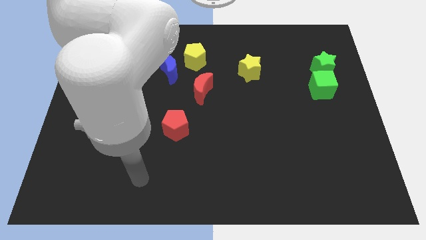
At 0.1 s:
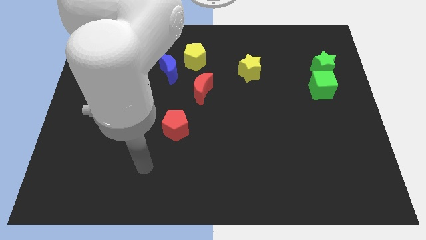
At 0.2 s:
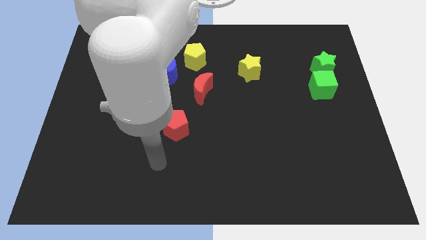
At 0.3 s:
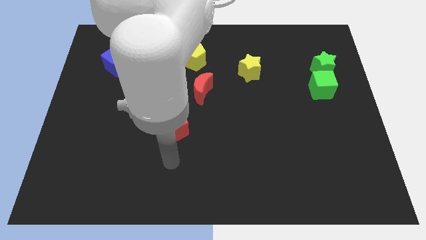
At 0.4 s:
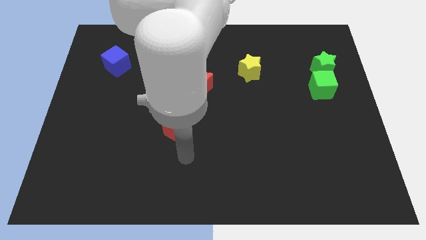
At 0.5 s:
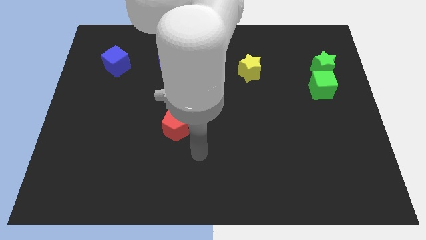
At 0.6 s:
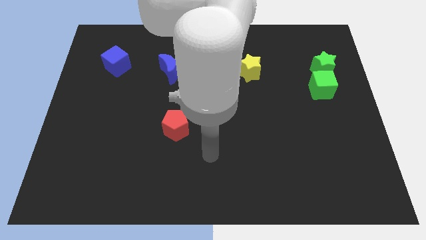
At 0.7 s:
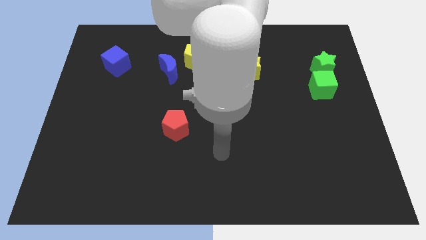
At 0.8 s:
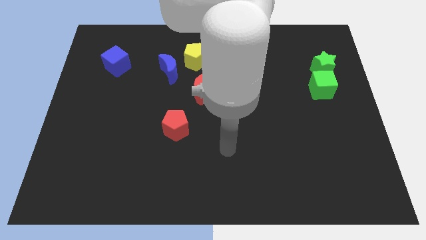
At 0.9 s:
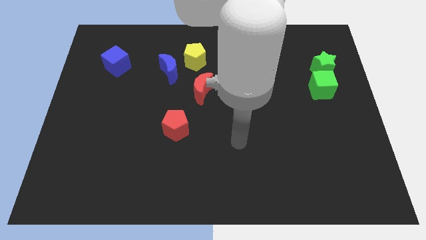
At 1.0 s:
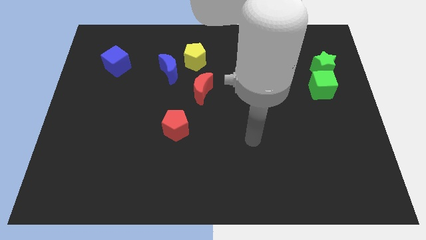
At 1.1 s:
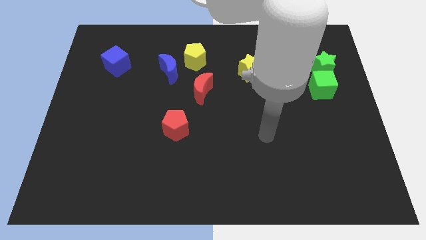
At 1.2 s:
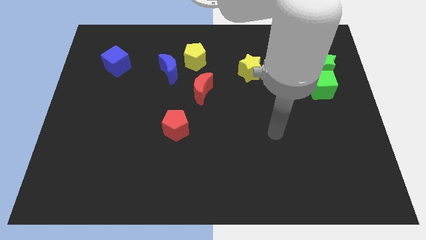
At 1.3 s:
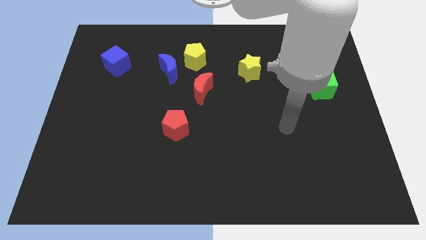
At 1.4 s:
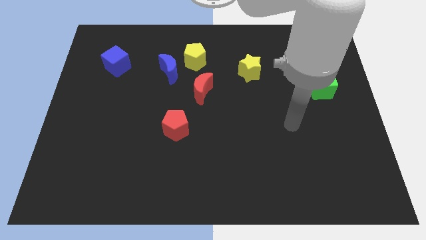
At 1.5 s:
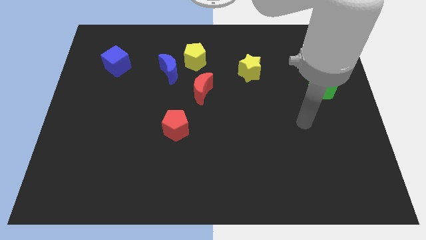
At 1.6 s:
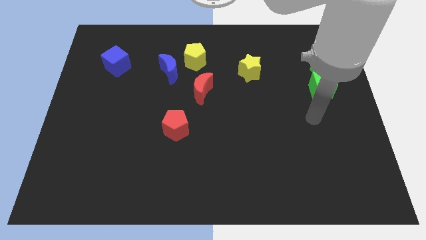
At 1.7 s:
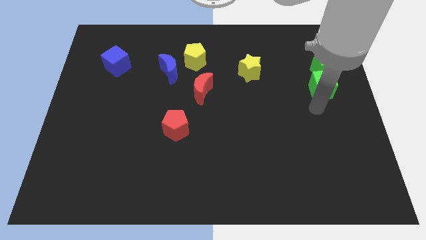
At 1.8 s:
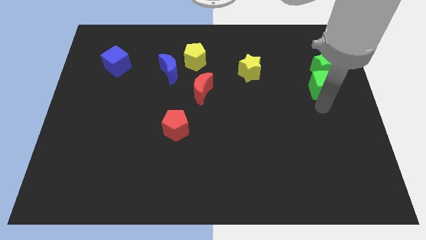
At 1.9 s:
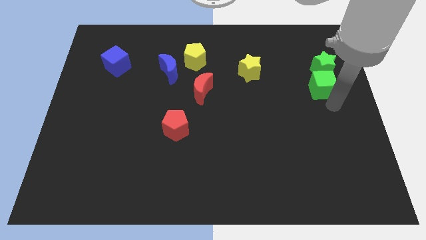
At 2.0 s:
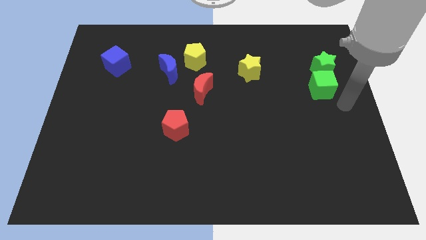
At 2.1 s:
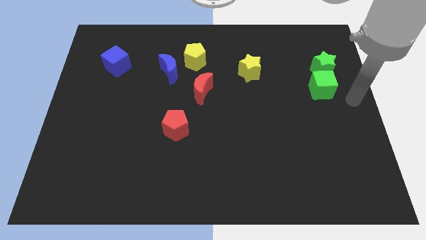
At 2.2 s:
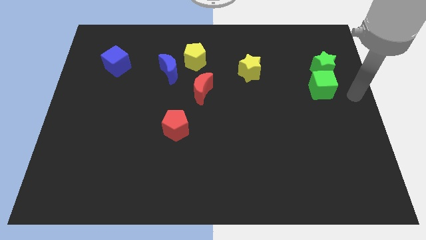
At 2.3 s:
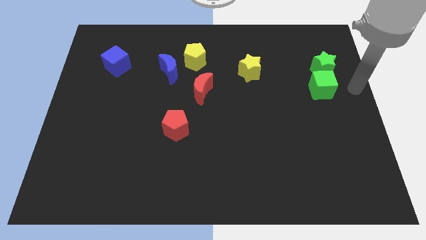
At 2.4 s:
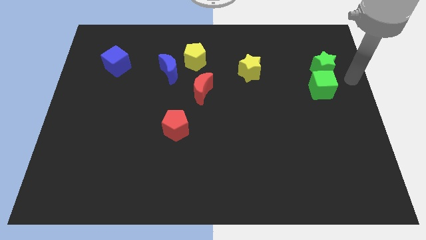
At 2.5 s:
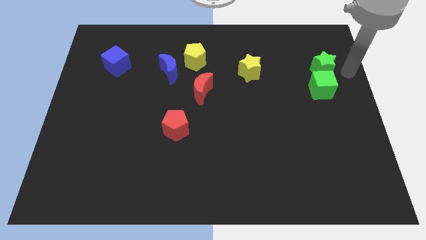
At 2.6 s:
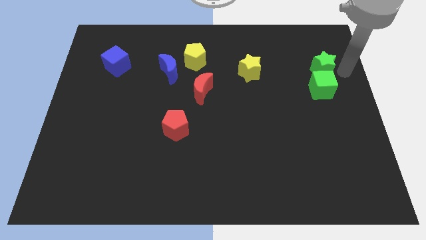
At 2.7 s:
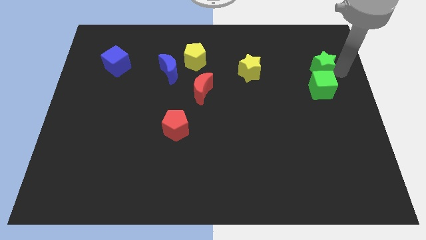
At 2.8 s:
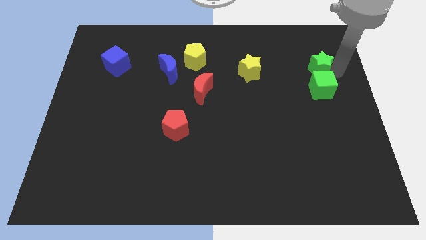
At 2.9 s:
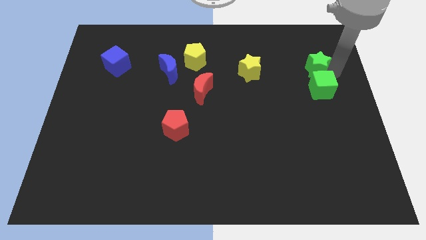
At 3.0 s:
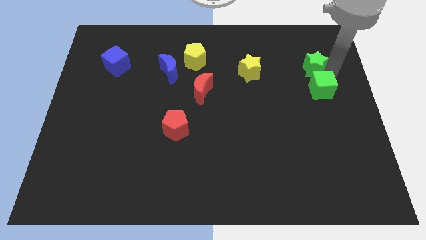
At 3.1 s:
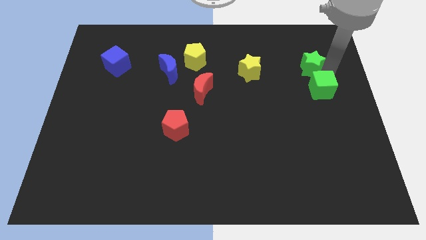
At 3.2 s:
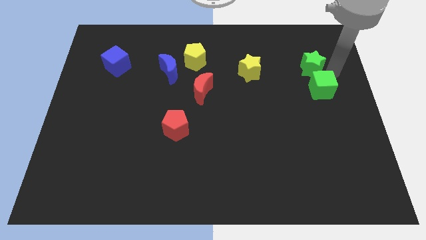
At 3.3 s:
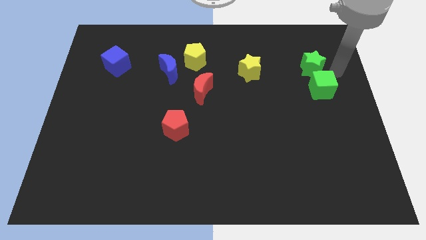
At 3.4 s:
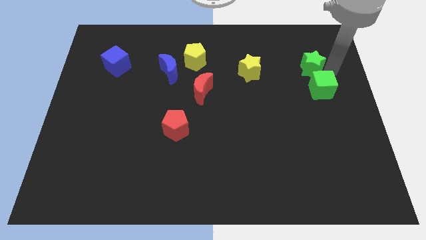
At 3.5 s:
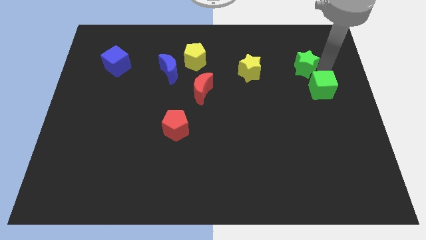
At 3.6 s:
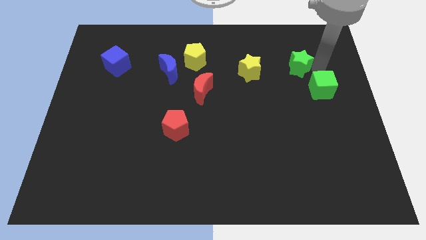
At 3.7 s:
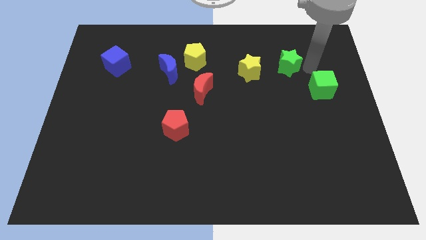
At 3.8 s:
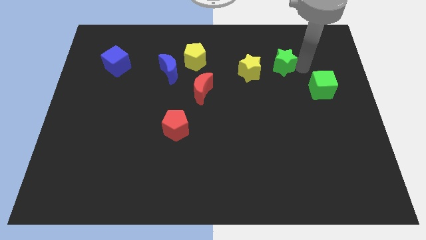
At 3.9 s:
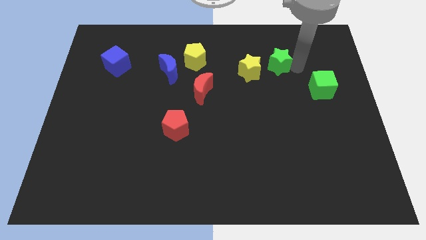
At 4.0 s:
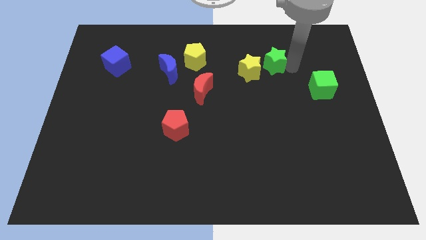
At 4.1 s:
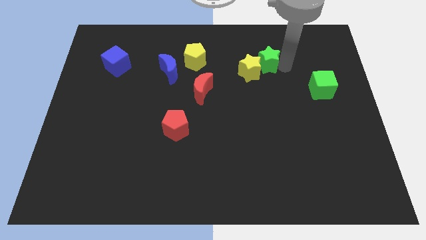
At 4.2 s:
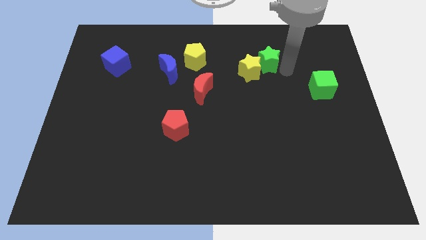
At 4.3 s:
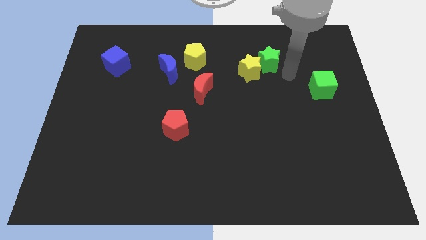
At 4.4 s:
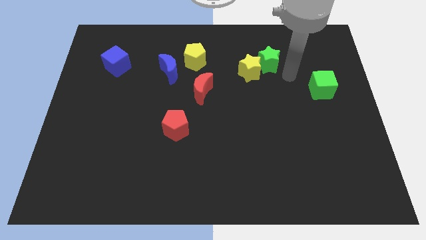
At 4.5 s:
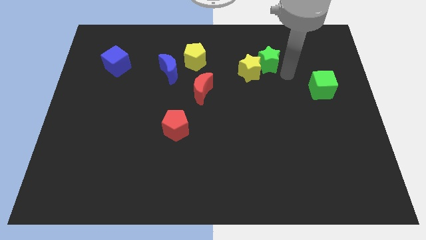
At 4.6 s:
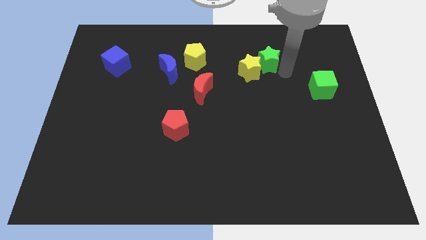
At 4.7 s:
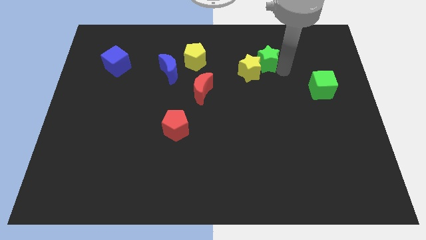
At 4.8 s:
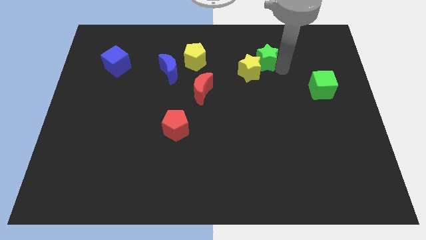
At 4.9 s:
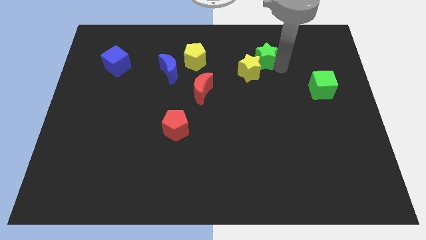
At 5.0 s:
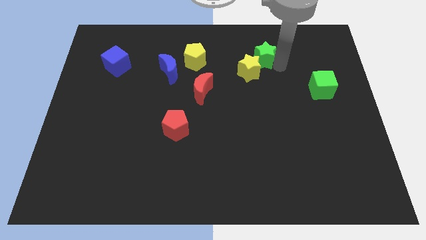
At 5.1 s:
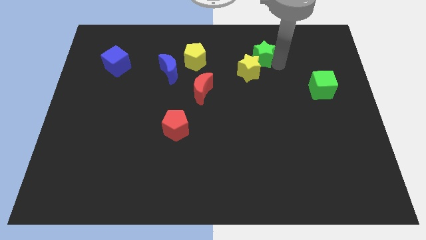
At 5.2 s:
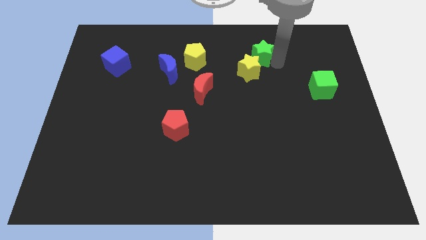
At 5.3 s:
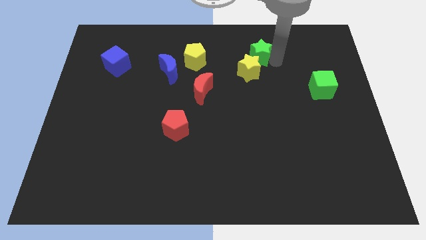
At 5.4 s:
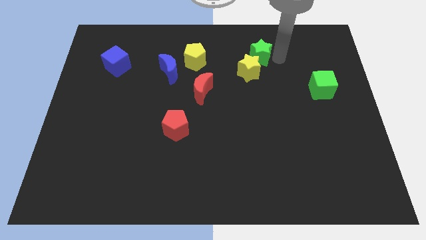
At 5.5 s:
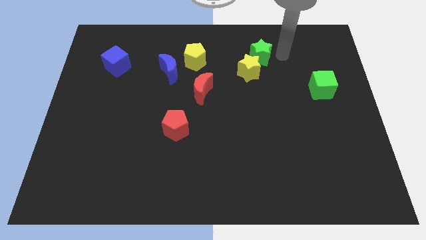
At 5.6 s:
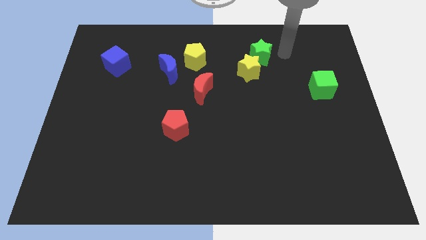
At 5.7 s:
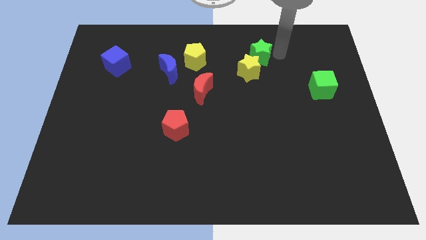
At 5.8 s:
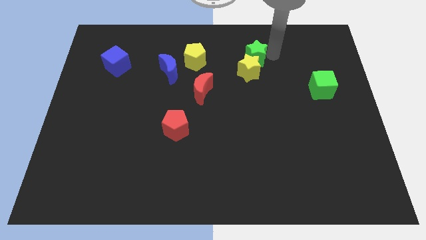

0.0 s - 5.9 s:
push the green star just right of the yellow pentagon

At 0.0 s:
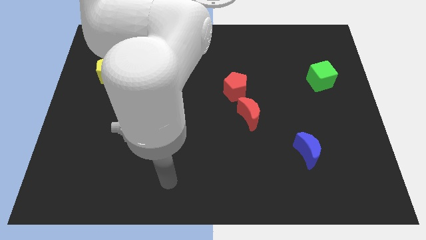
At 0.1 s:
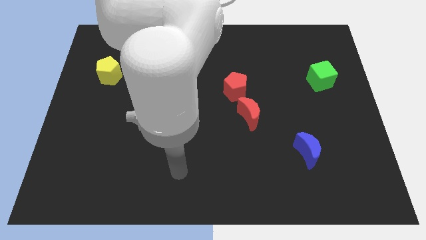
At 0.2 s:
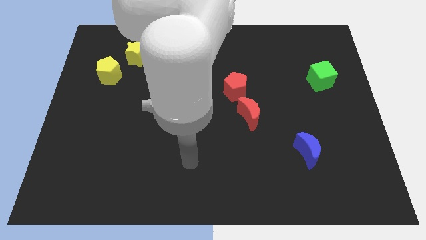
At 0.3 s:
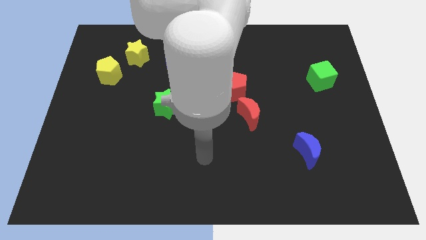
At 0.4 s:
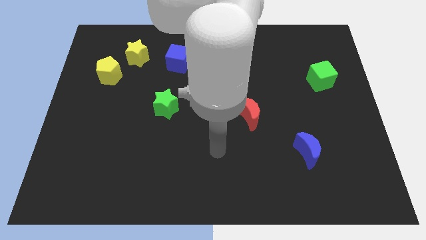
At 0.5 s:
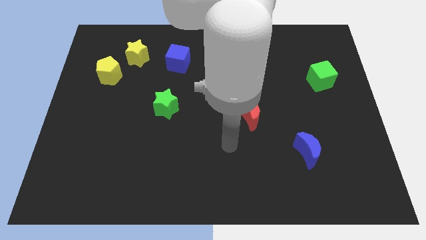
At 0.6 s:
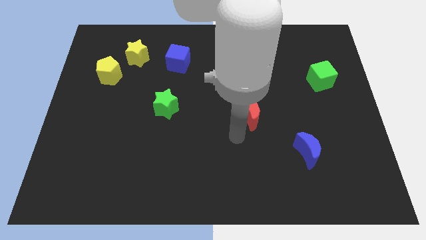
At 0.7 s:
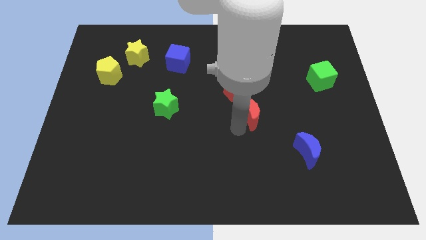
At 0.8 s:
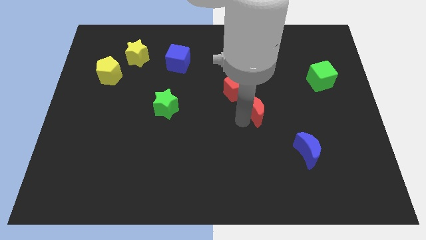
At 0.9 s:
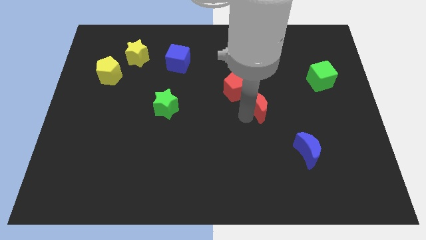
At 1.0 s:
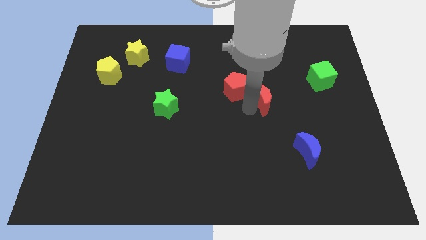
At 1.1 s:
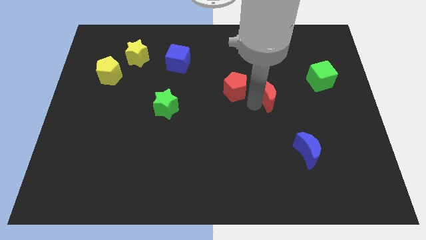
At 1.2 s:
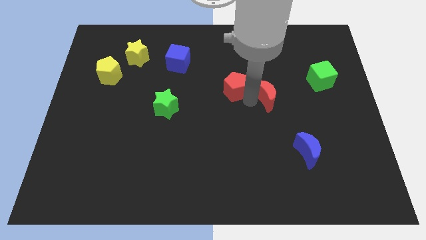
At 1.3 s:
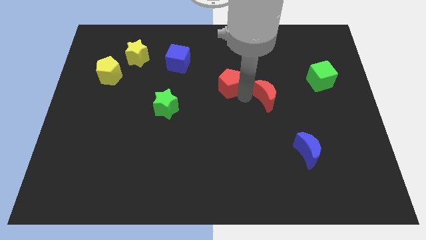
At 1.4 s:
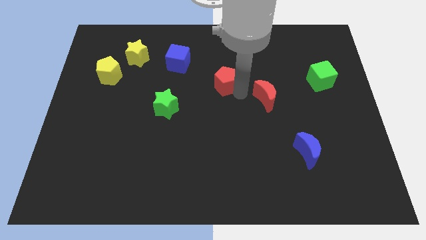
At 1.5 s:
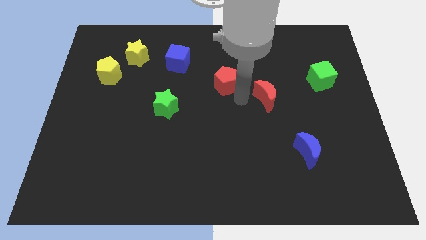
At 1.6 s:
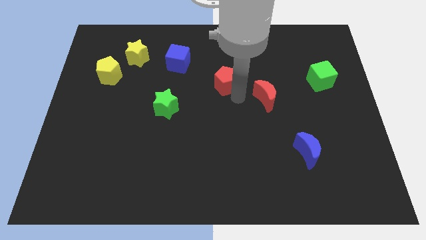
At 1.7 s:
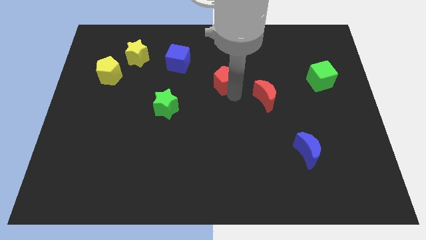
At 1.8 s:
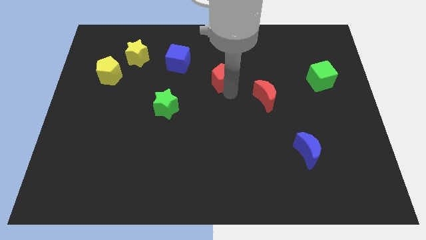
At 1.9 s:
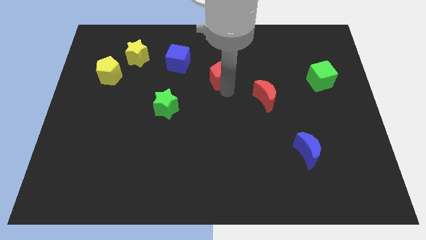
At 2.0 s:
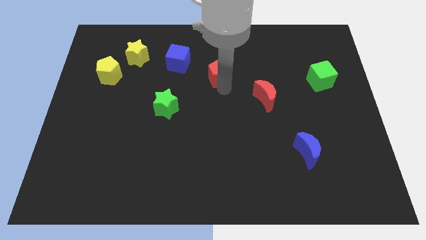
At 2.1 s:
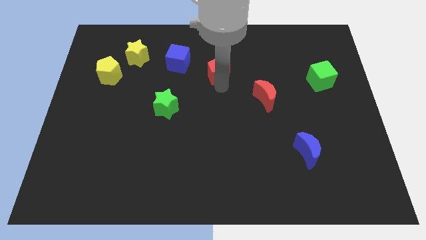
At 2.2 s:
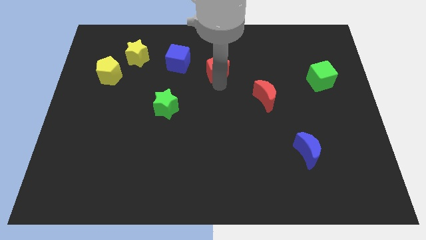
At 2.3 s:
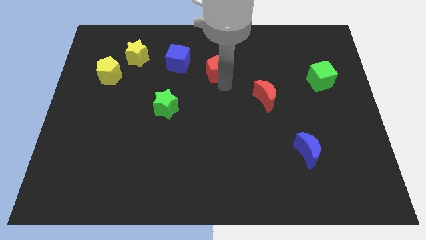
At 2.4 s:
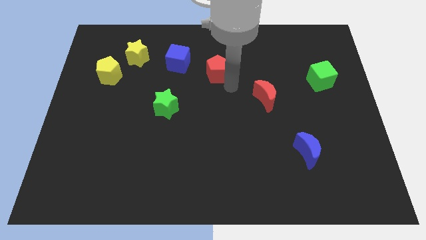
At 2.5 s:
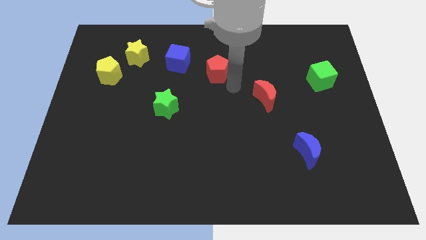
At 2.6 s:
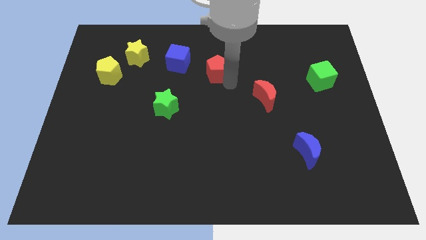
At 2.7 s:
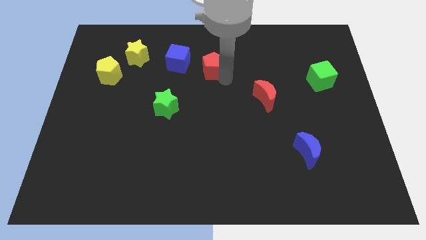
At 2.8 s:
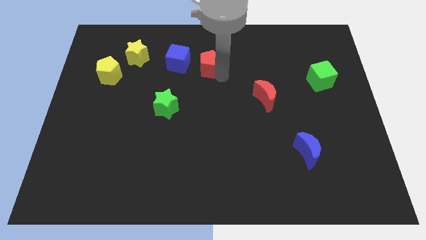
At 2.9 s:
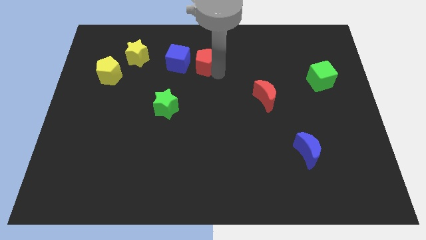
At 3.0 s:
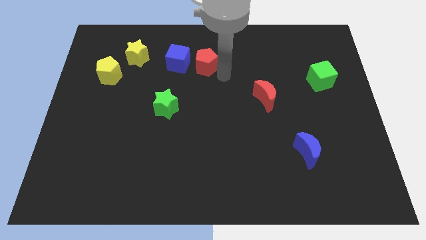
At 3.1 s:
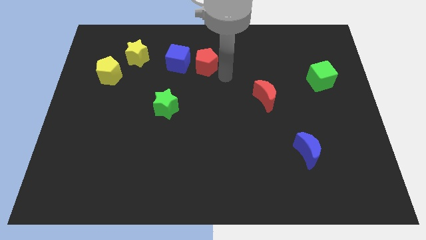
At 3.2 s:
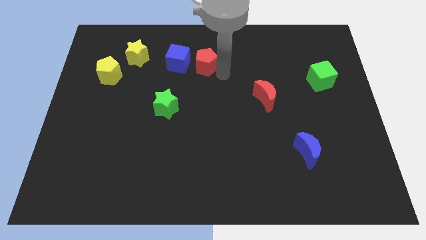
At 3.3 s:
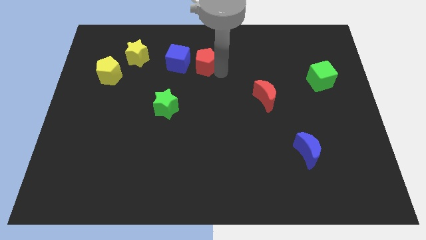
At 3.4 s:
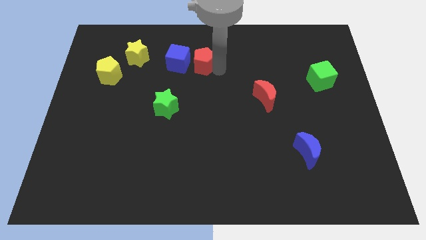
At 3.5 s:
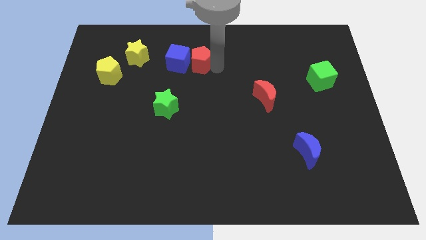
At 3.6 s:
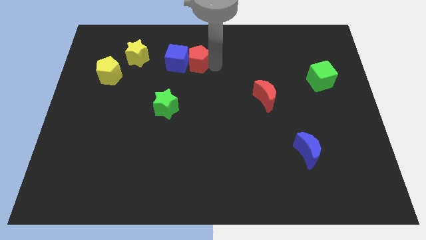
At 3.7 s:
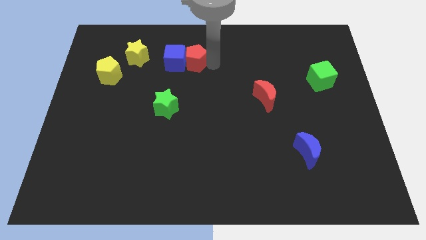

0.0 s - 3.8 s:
push the red pentagon just right of the yellow star
